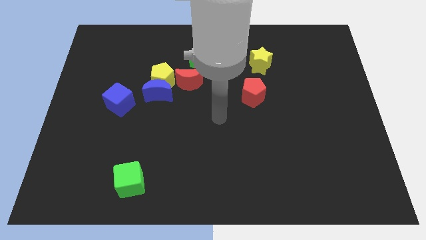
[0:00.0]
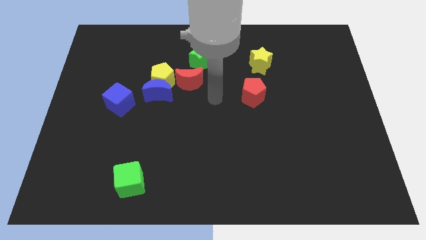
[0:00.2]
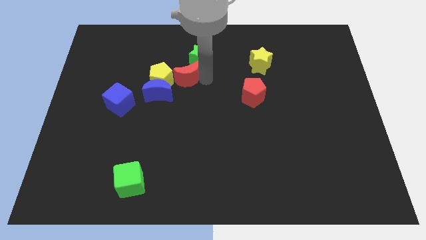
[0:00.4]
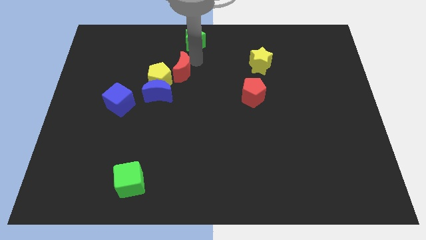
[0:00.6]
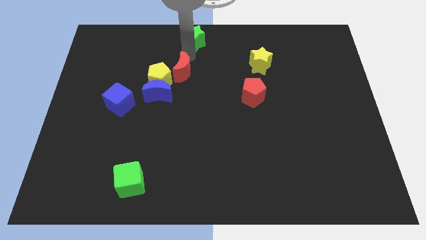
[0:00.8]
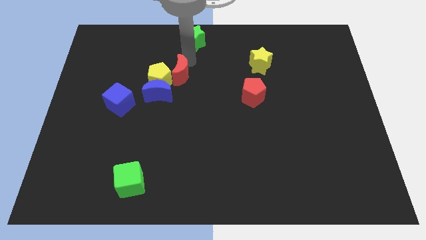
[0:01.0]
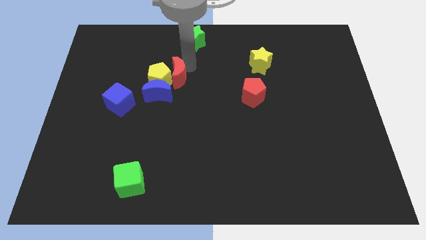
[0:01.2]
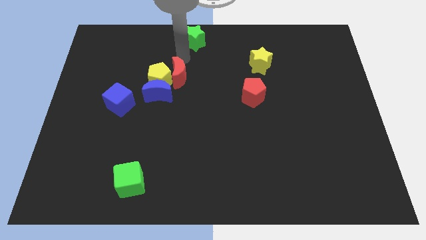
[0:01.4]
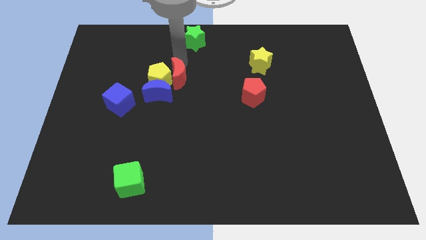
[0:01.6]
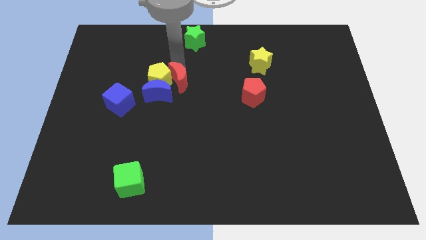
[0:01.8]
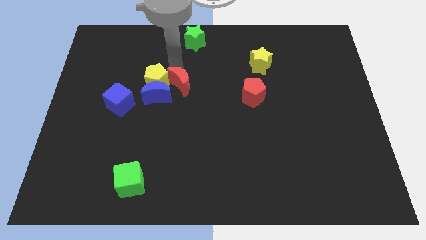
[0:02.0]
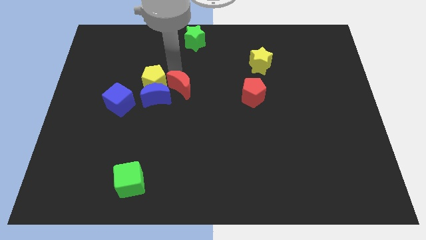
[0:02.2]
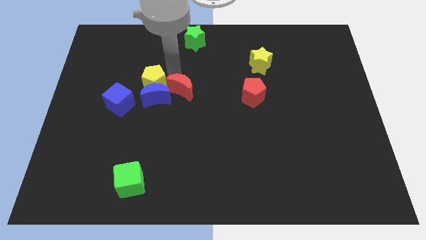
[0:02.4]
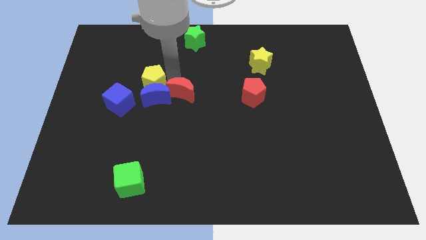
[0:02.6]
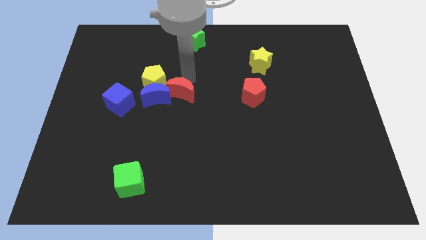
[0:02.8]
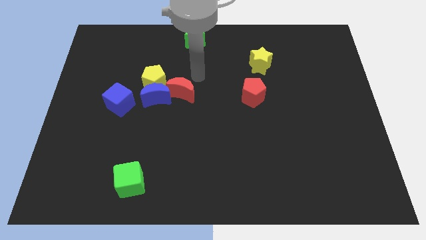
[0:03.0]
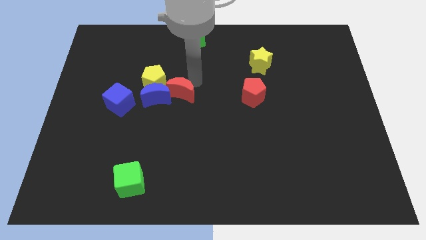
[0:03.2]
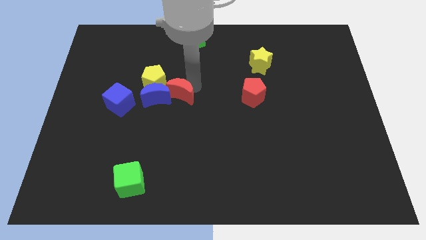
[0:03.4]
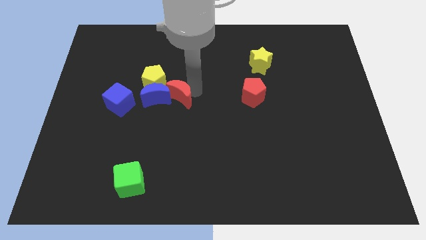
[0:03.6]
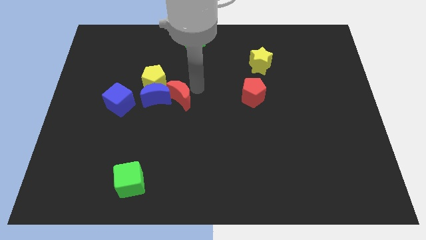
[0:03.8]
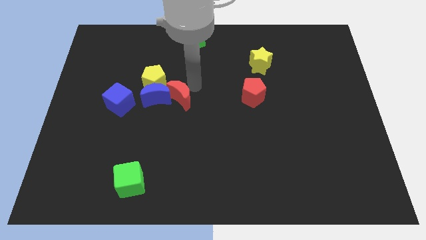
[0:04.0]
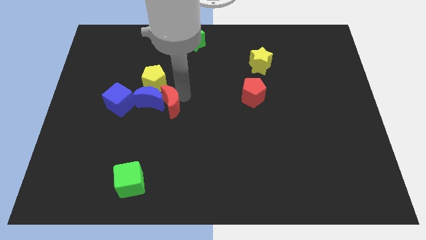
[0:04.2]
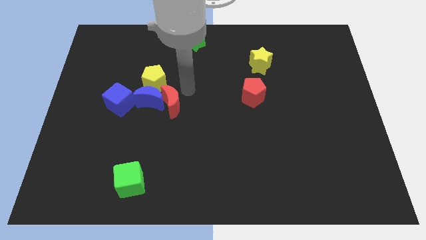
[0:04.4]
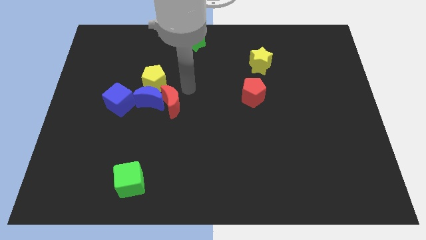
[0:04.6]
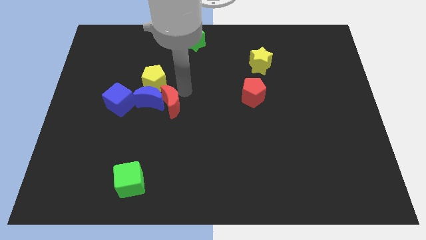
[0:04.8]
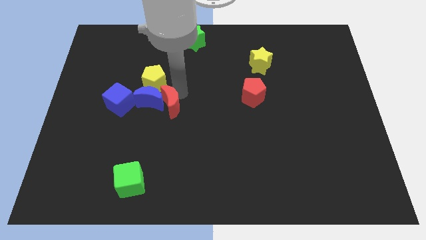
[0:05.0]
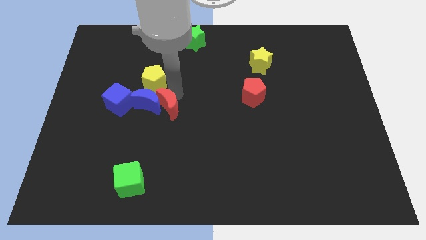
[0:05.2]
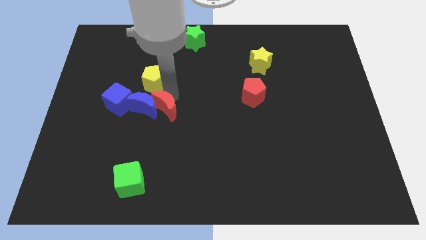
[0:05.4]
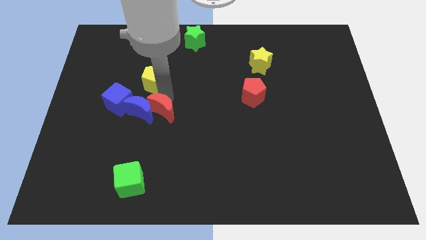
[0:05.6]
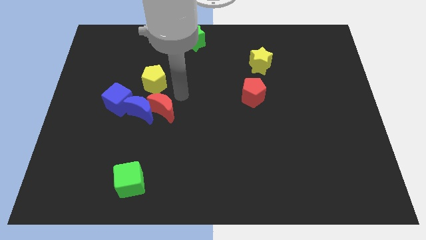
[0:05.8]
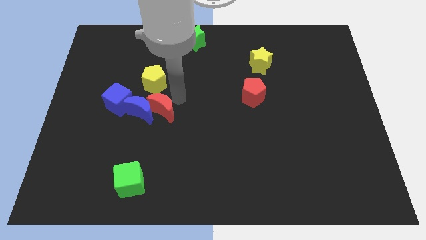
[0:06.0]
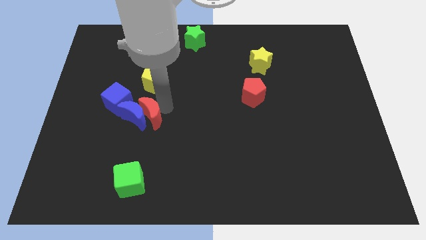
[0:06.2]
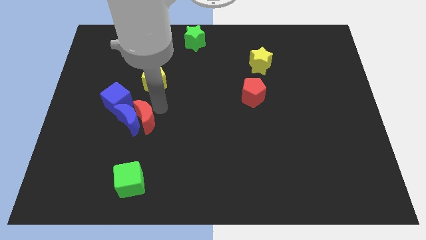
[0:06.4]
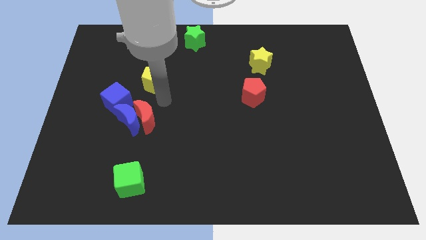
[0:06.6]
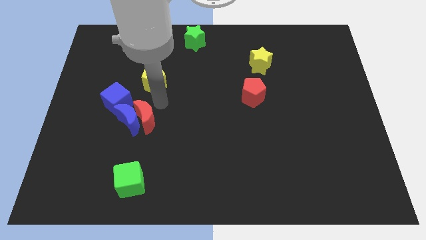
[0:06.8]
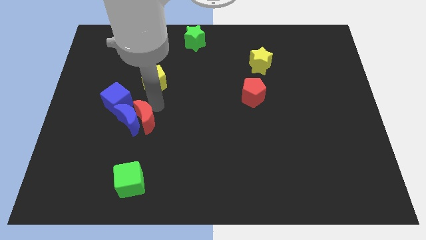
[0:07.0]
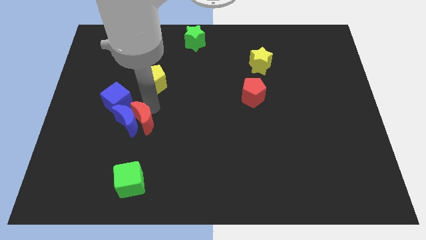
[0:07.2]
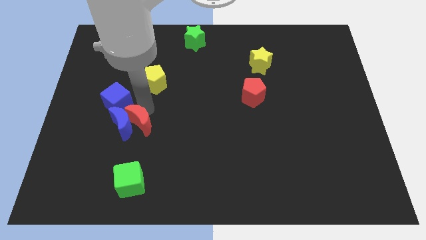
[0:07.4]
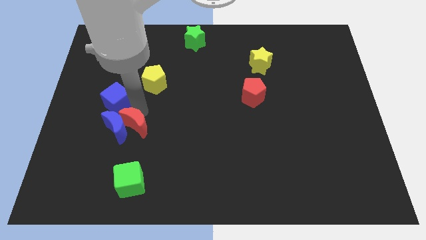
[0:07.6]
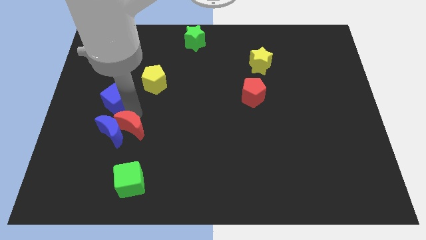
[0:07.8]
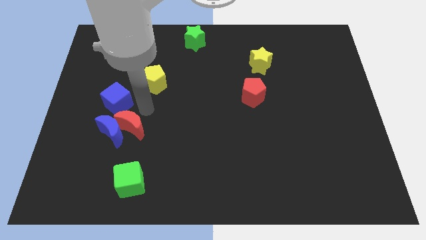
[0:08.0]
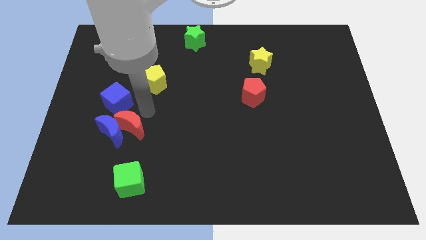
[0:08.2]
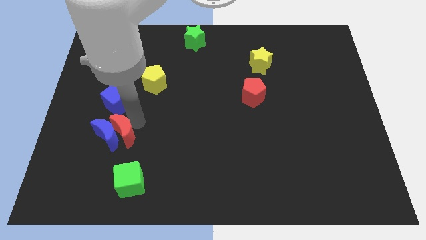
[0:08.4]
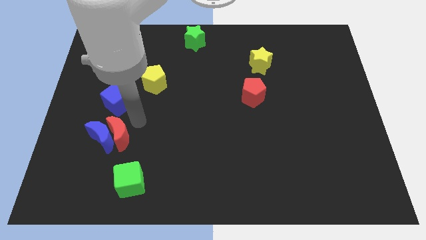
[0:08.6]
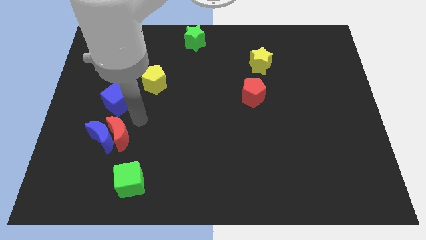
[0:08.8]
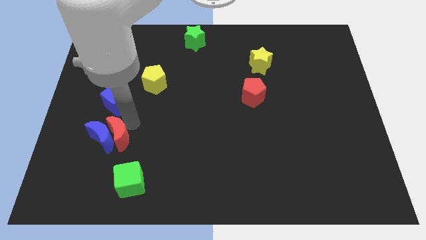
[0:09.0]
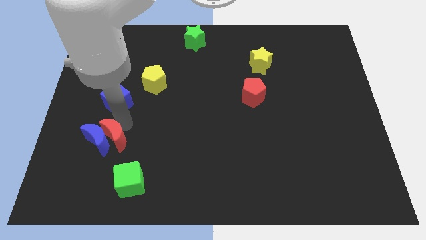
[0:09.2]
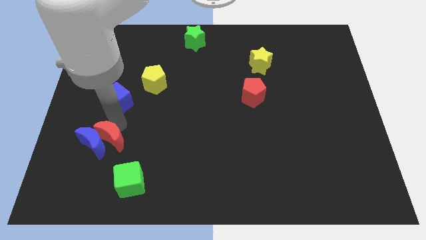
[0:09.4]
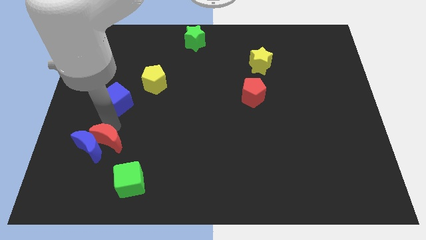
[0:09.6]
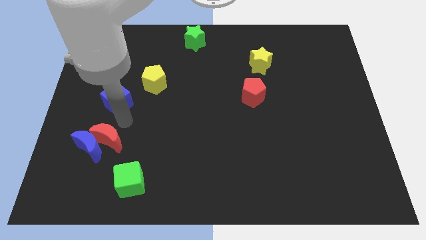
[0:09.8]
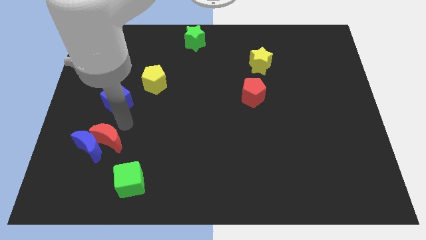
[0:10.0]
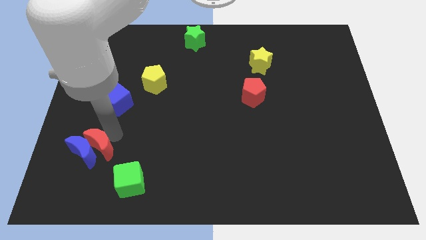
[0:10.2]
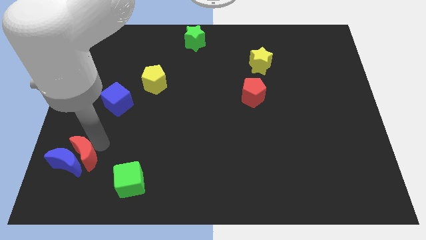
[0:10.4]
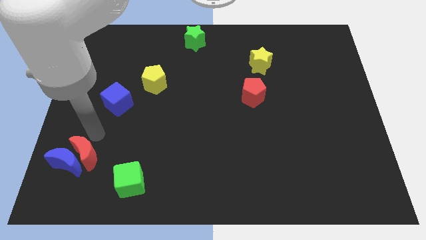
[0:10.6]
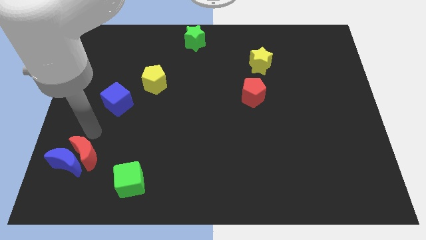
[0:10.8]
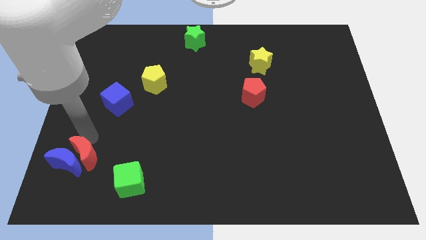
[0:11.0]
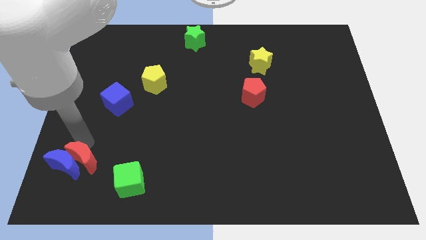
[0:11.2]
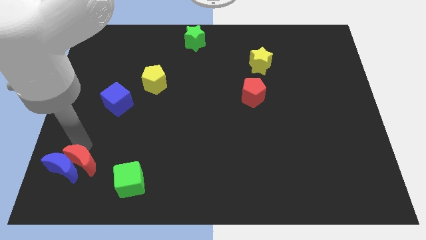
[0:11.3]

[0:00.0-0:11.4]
move the red moon just left of the green cube
